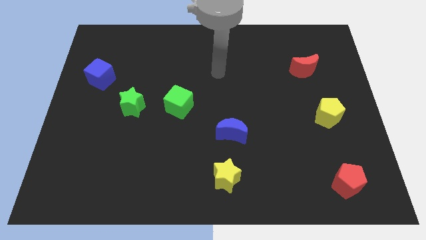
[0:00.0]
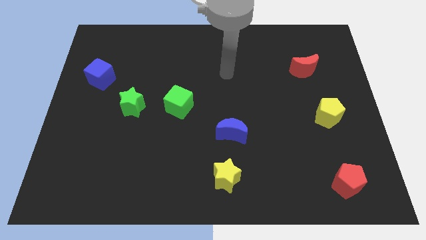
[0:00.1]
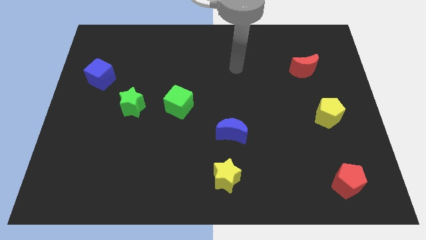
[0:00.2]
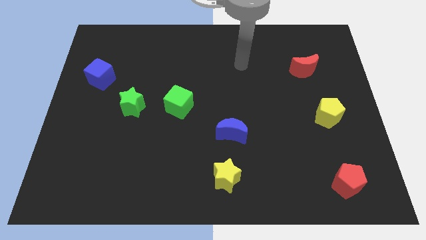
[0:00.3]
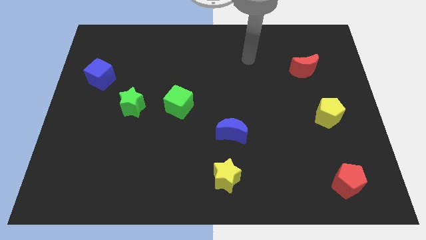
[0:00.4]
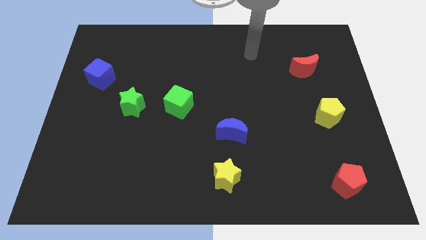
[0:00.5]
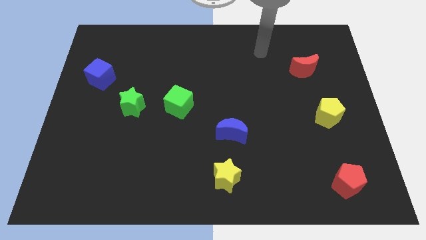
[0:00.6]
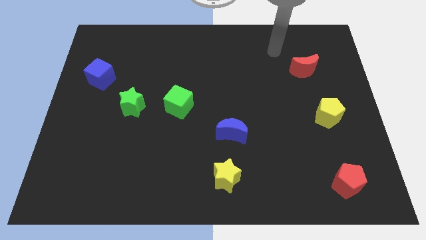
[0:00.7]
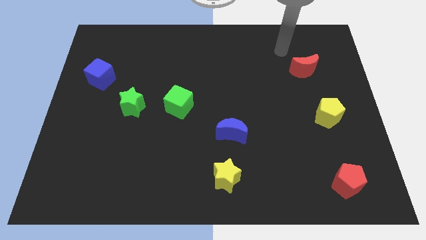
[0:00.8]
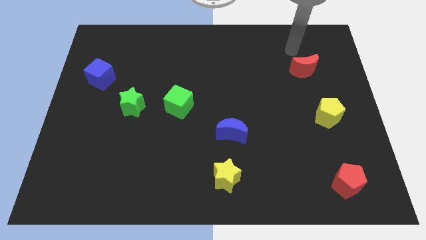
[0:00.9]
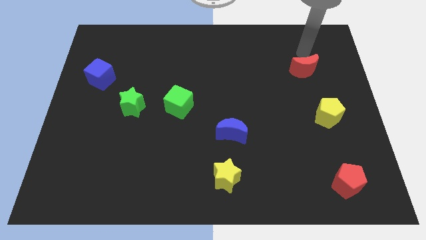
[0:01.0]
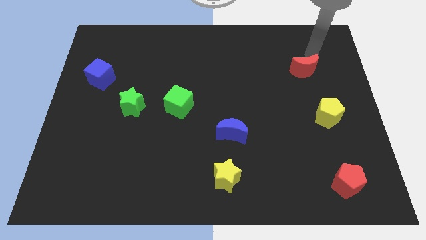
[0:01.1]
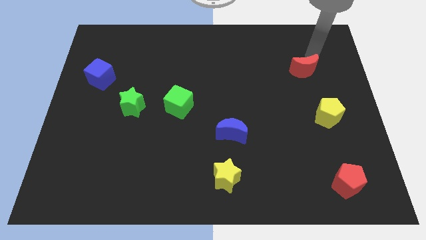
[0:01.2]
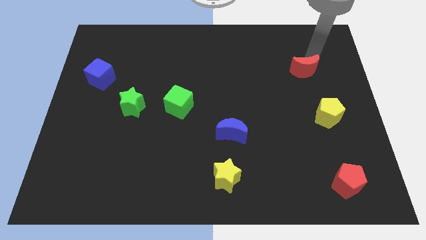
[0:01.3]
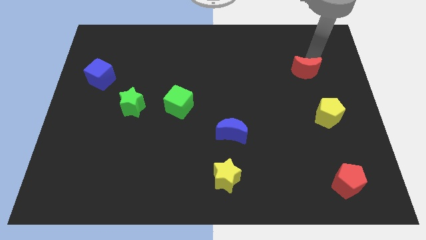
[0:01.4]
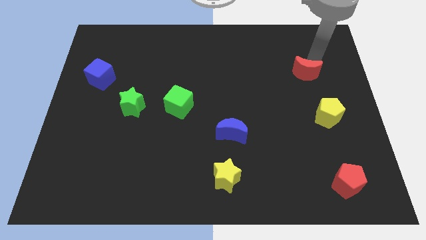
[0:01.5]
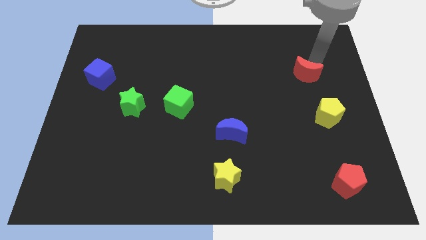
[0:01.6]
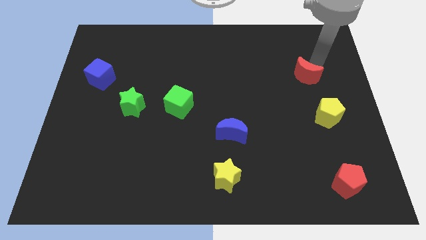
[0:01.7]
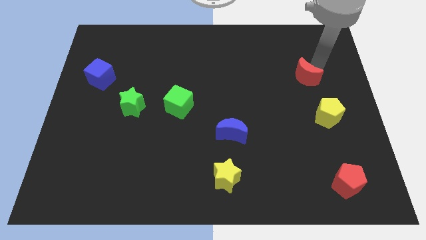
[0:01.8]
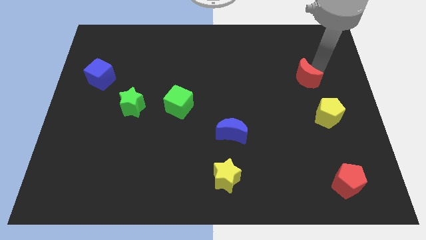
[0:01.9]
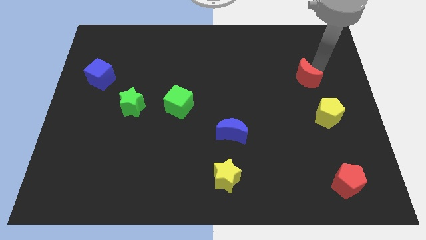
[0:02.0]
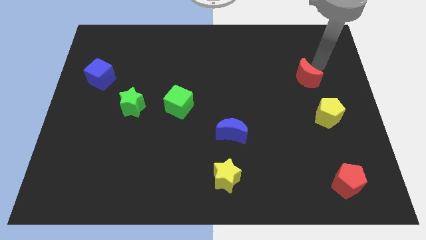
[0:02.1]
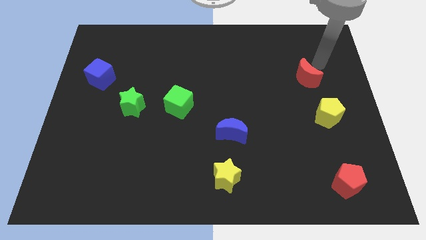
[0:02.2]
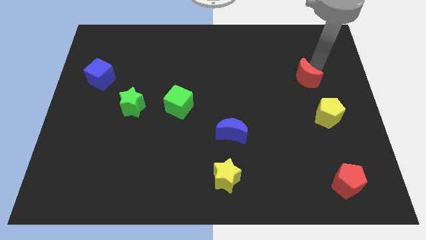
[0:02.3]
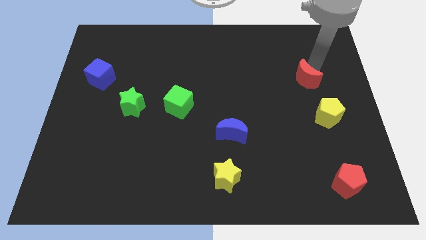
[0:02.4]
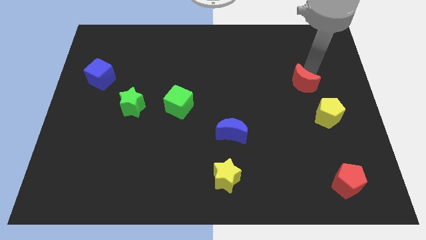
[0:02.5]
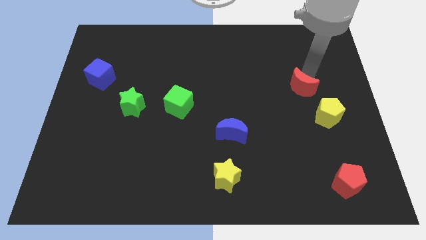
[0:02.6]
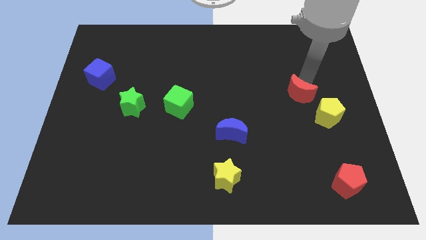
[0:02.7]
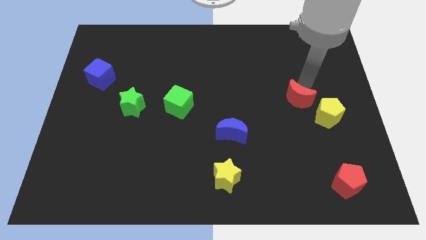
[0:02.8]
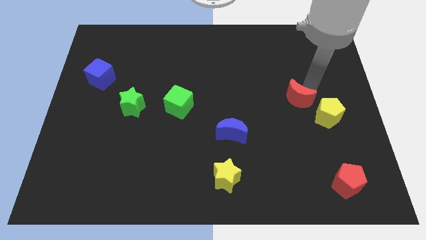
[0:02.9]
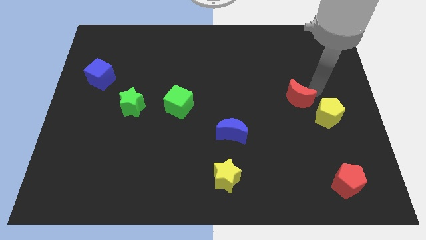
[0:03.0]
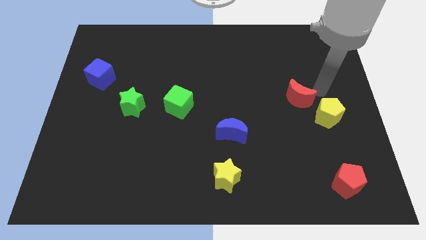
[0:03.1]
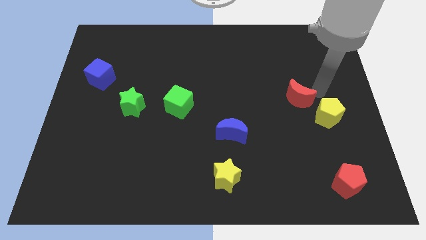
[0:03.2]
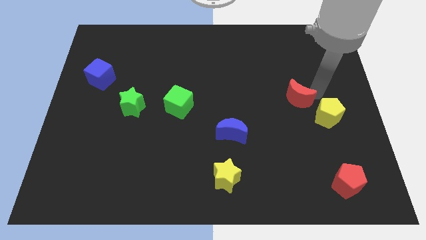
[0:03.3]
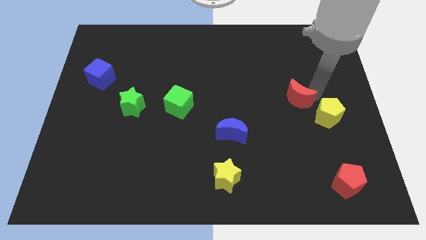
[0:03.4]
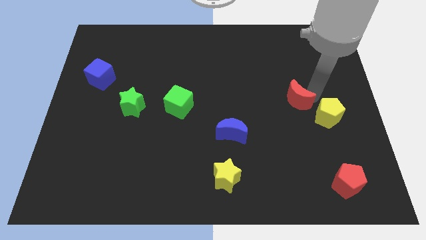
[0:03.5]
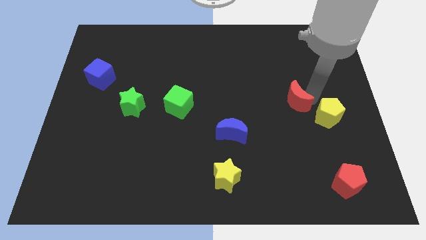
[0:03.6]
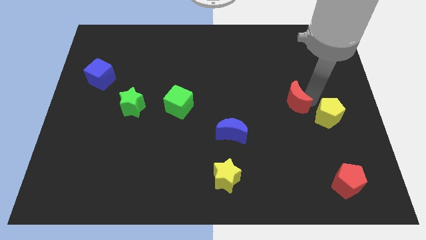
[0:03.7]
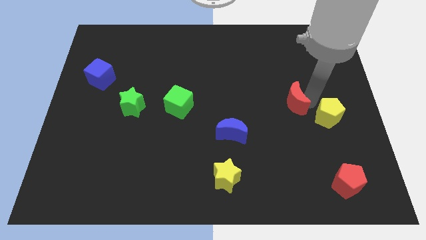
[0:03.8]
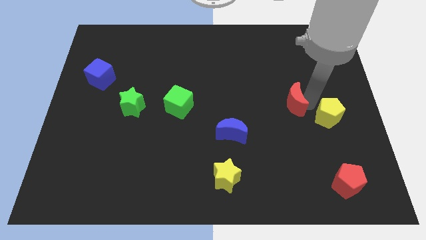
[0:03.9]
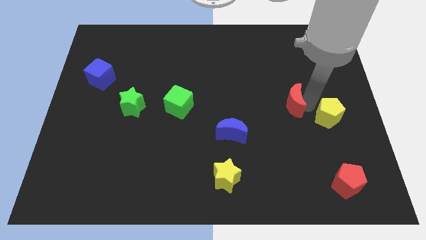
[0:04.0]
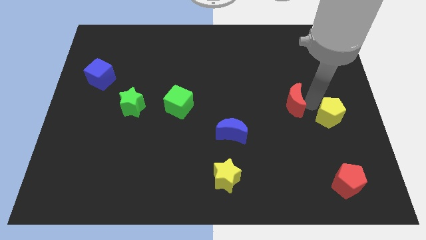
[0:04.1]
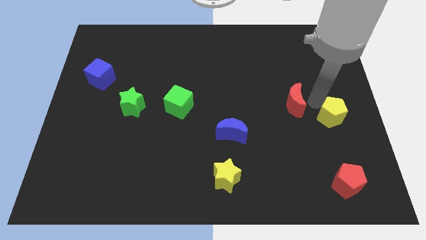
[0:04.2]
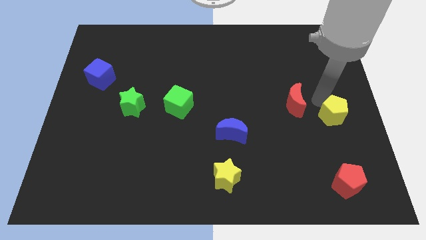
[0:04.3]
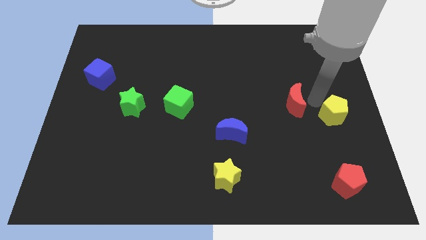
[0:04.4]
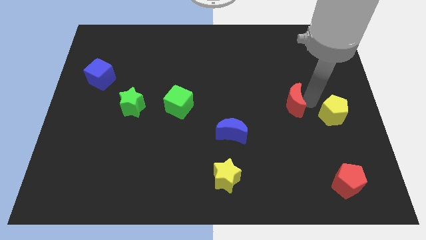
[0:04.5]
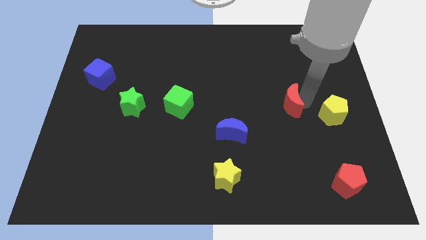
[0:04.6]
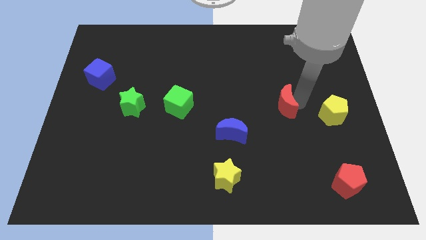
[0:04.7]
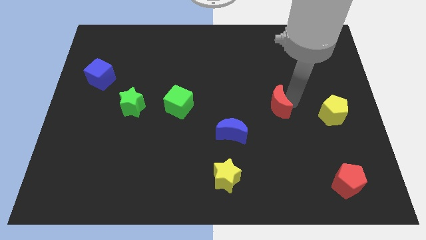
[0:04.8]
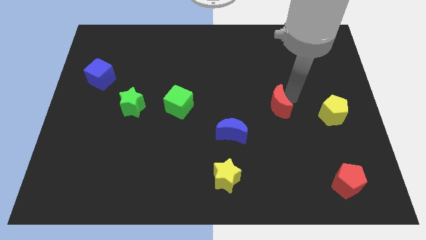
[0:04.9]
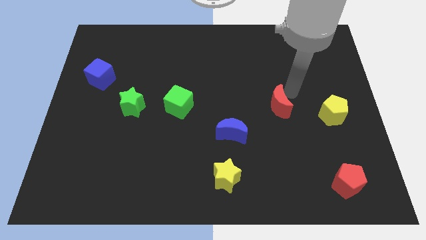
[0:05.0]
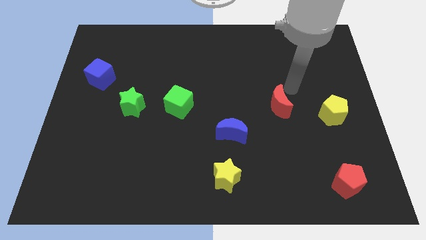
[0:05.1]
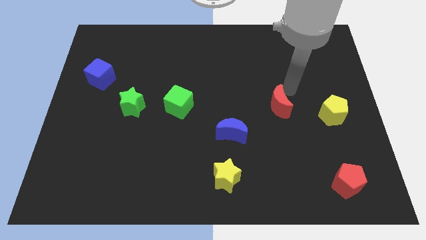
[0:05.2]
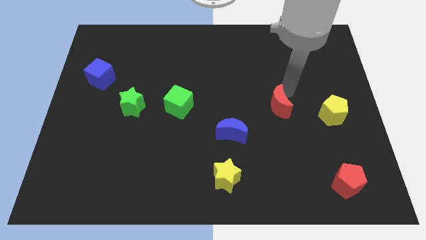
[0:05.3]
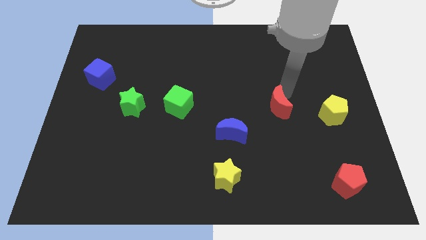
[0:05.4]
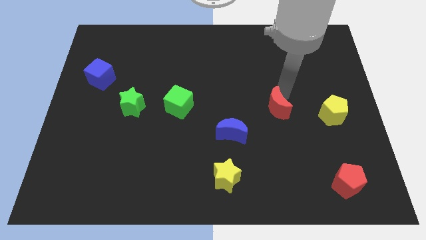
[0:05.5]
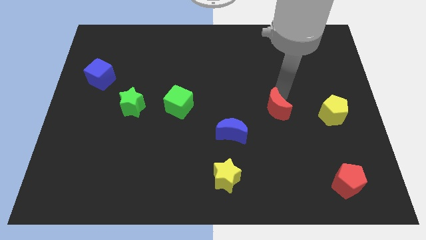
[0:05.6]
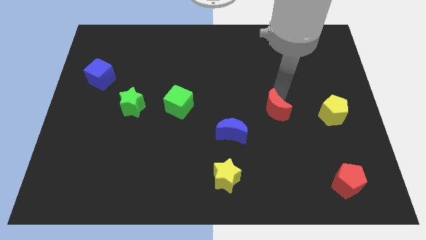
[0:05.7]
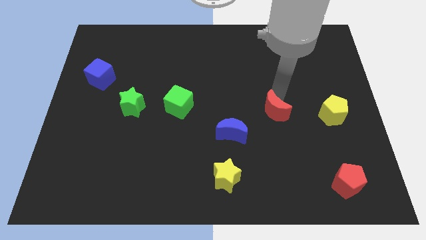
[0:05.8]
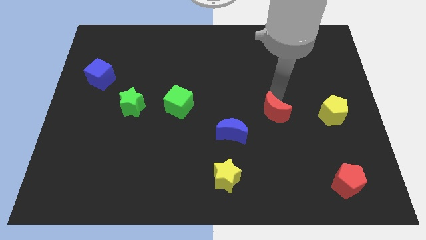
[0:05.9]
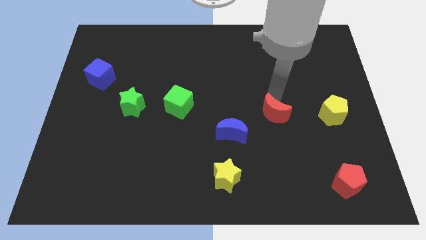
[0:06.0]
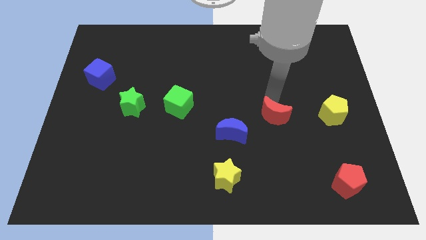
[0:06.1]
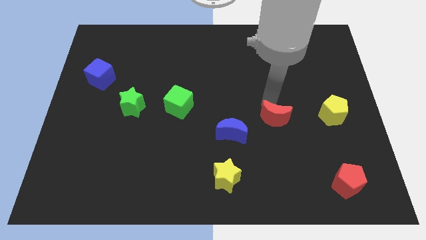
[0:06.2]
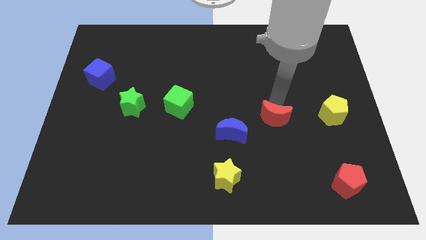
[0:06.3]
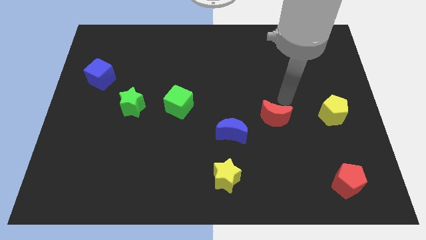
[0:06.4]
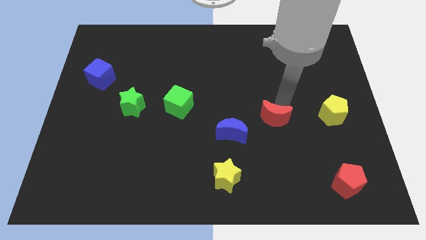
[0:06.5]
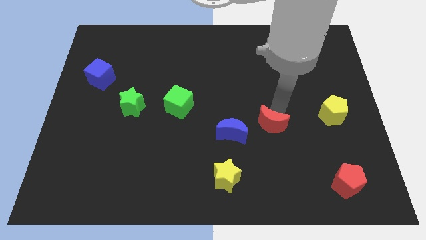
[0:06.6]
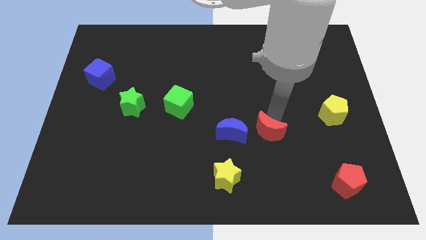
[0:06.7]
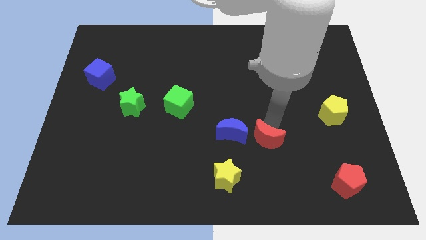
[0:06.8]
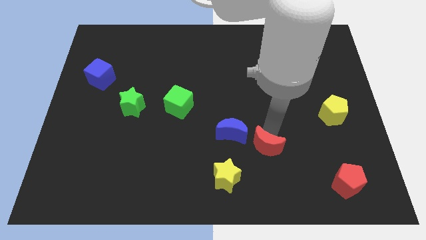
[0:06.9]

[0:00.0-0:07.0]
push the red moon to the top right of the yellow star

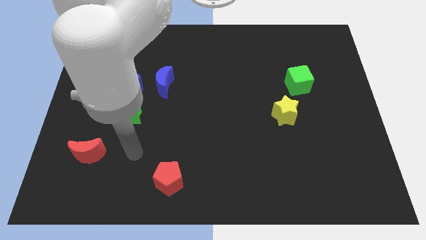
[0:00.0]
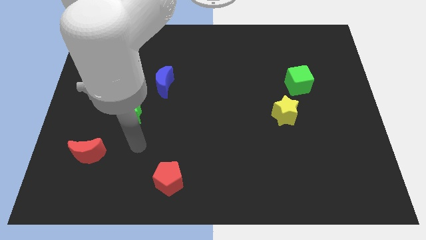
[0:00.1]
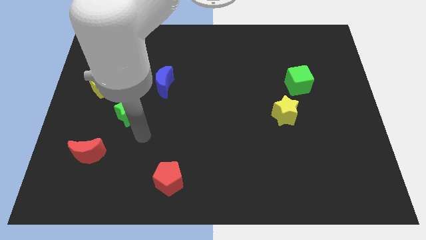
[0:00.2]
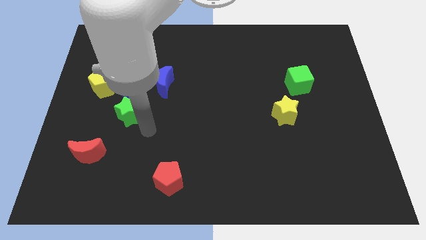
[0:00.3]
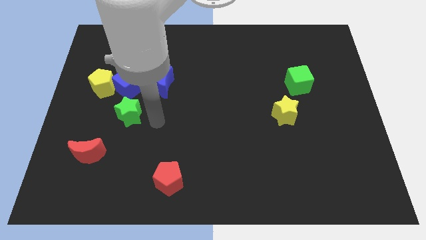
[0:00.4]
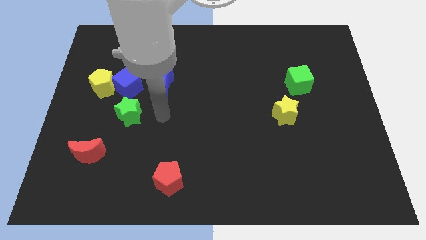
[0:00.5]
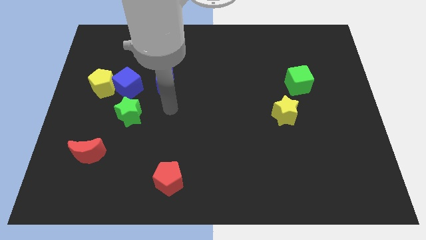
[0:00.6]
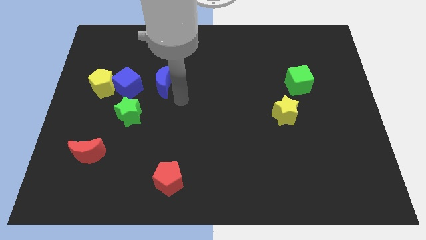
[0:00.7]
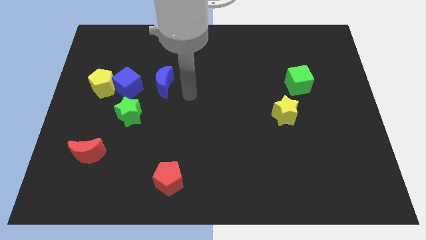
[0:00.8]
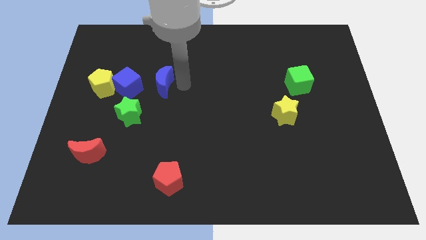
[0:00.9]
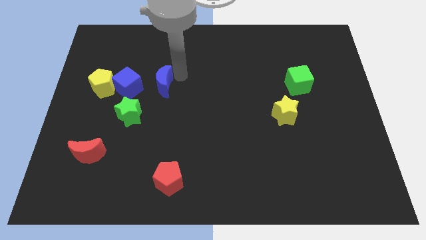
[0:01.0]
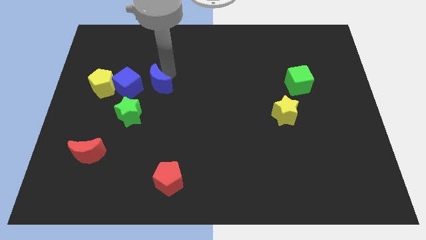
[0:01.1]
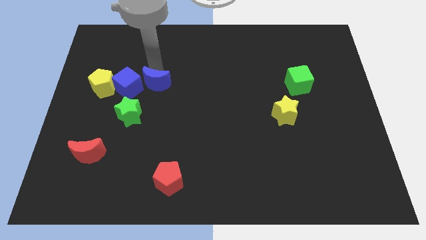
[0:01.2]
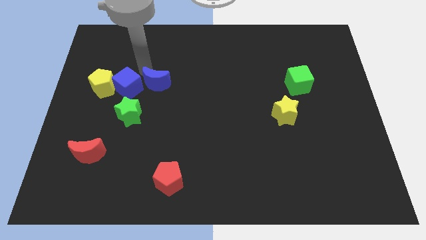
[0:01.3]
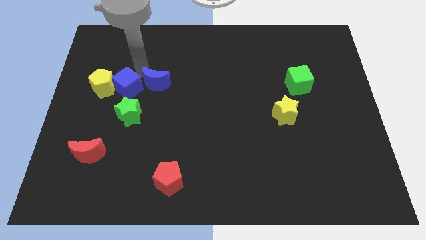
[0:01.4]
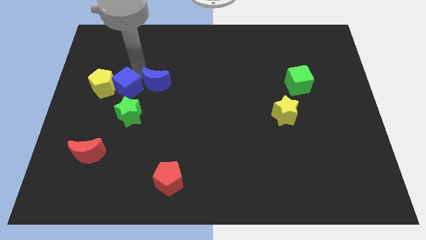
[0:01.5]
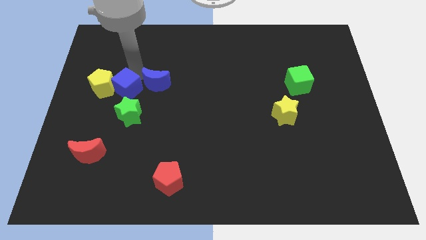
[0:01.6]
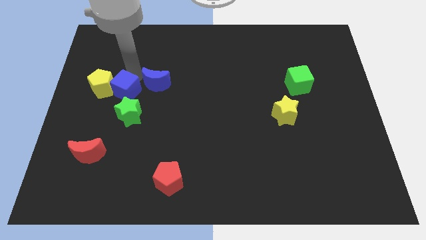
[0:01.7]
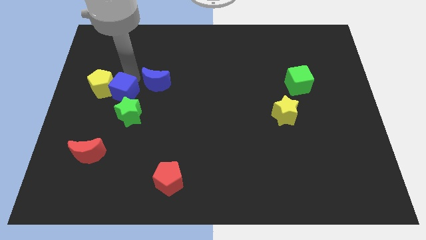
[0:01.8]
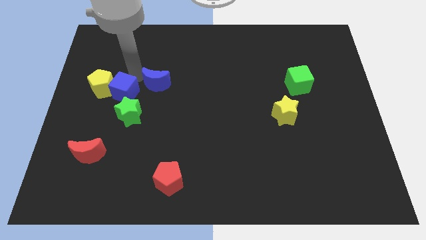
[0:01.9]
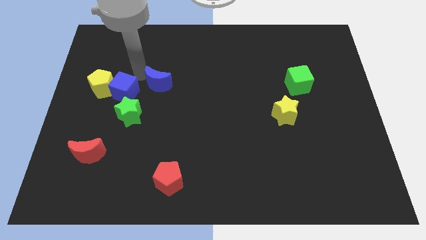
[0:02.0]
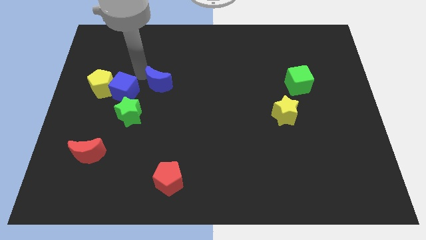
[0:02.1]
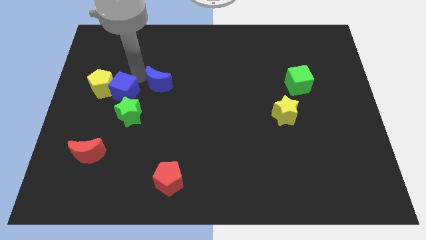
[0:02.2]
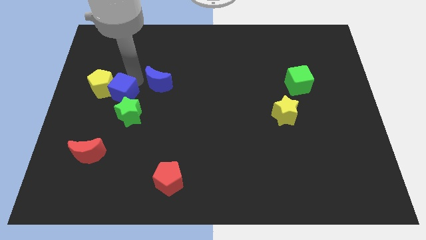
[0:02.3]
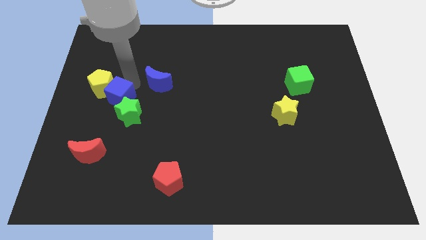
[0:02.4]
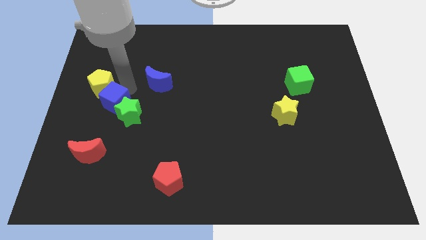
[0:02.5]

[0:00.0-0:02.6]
put the blue cube to the top of the red moon
